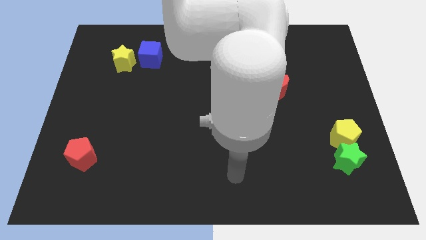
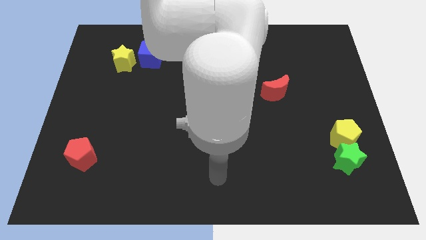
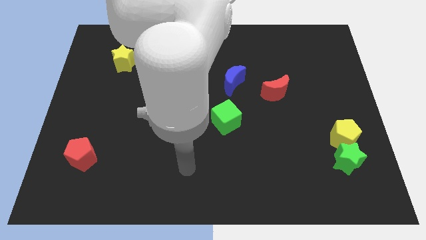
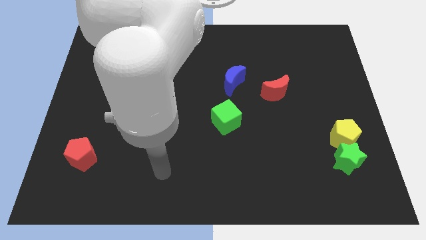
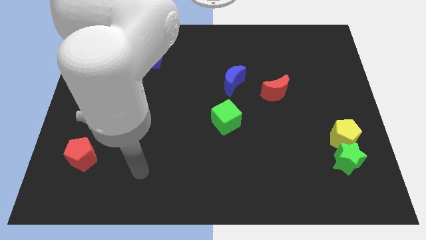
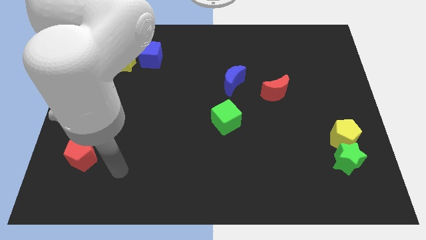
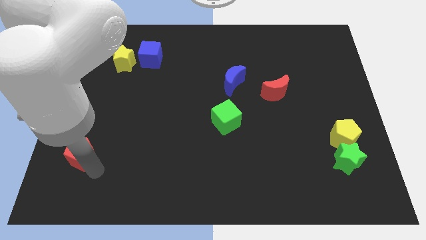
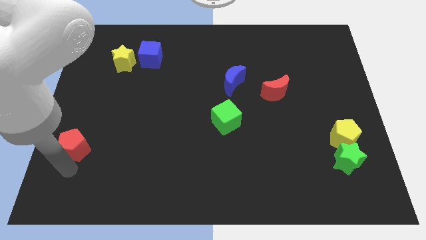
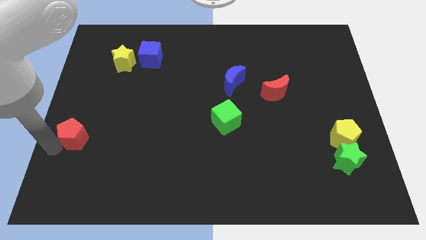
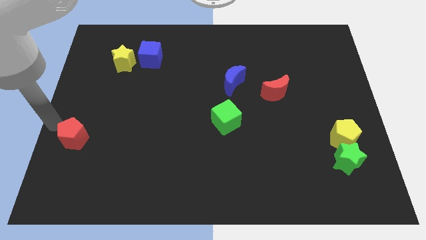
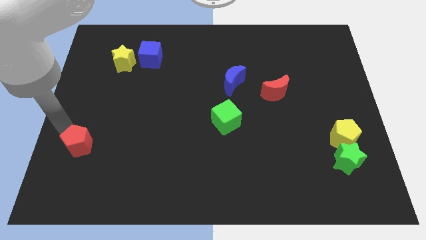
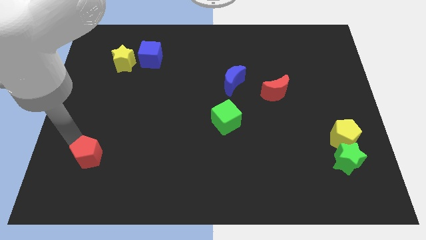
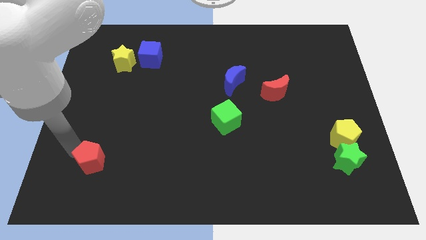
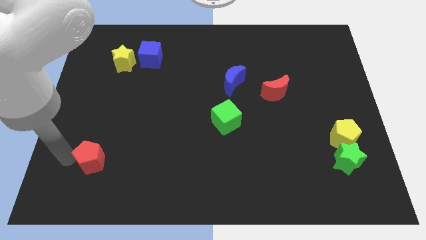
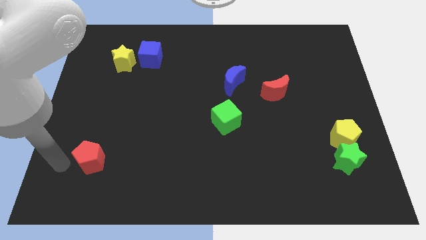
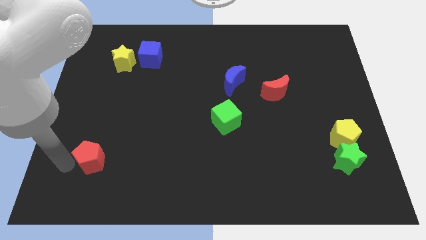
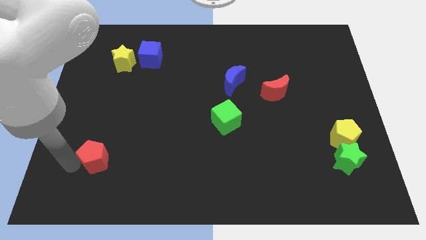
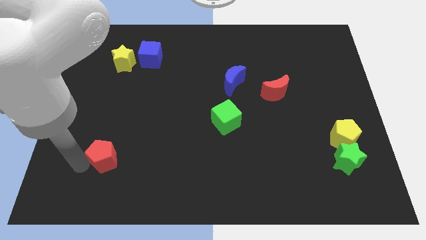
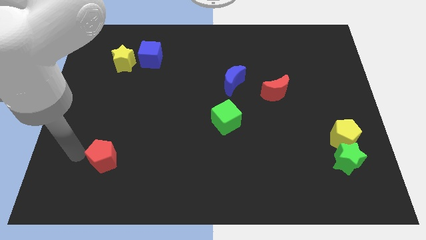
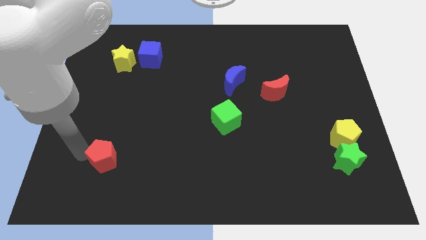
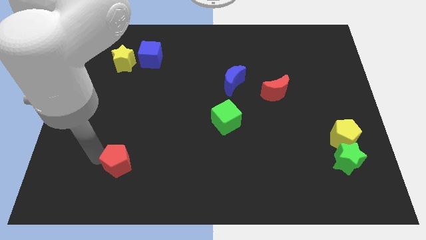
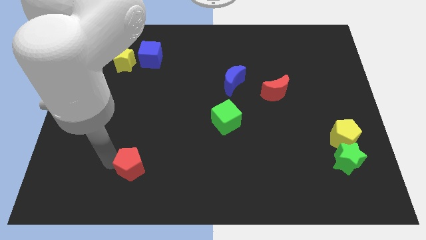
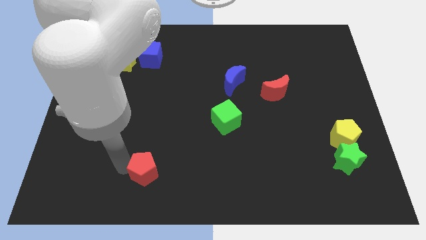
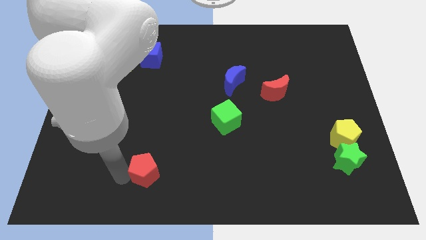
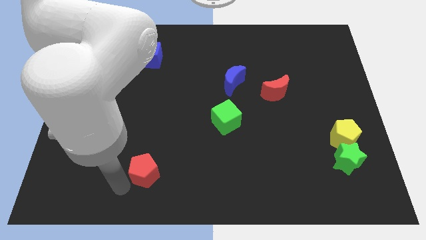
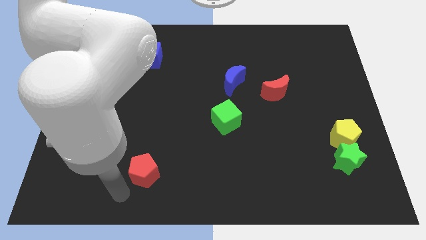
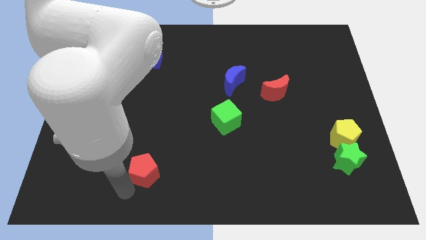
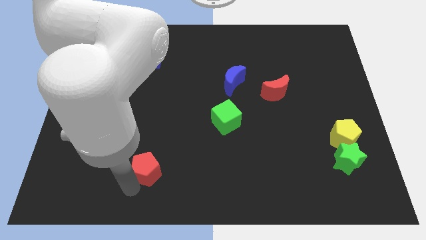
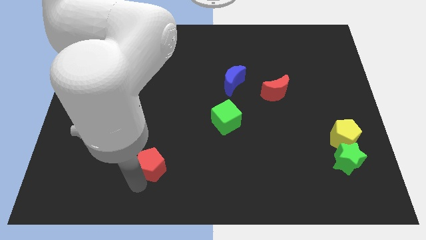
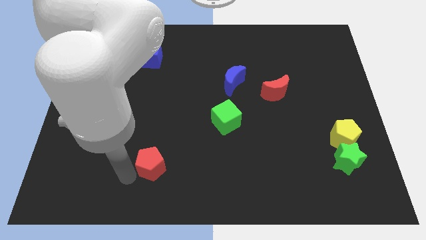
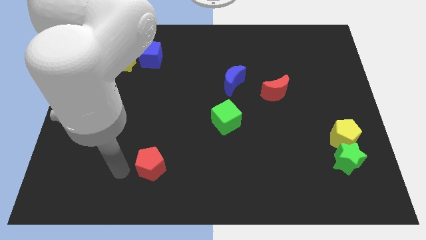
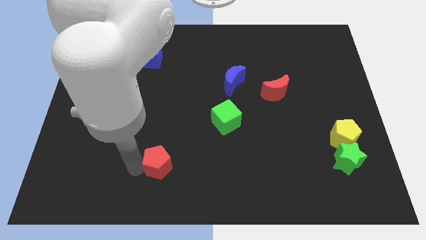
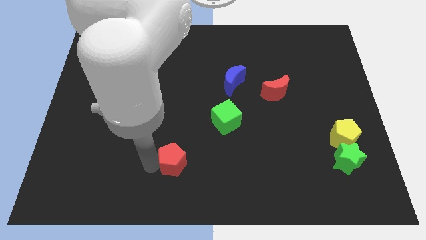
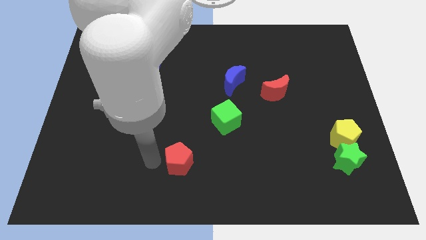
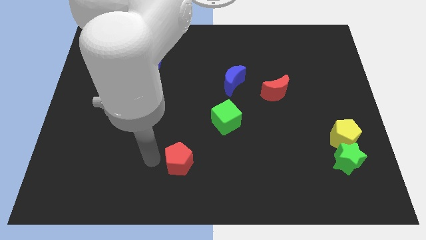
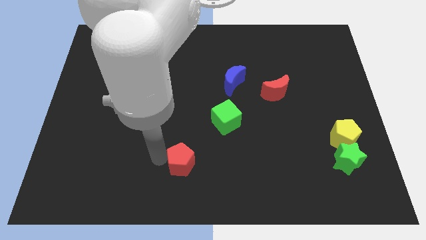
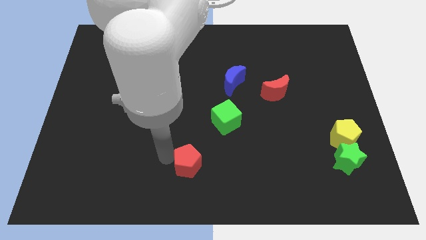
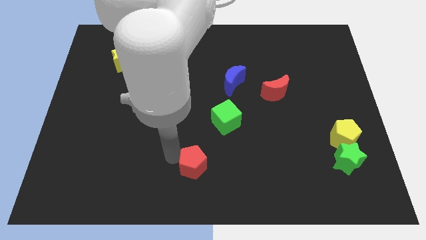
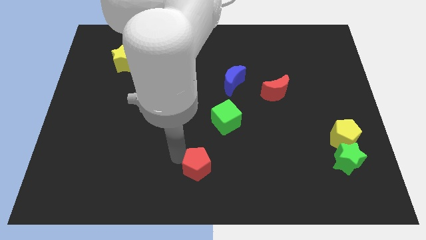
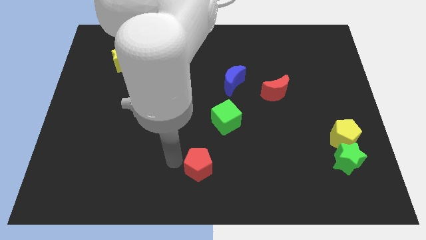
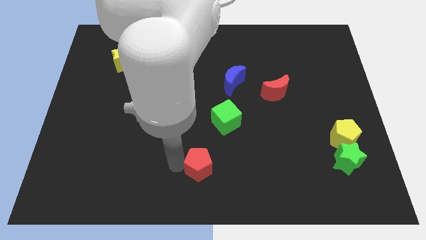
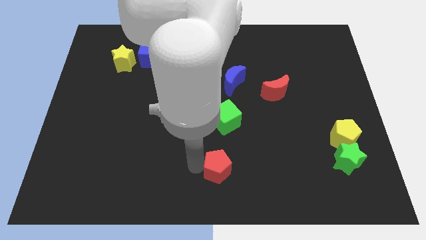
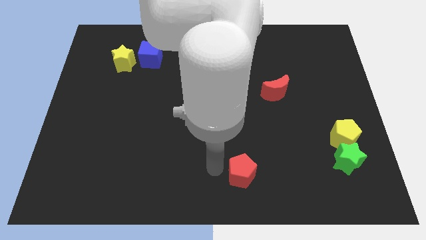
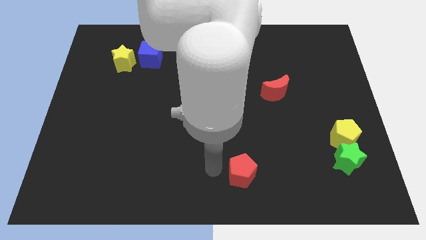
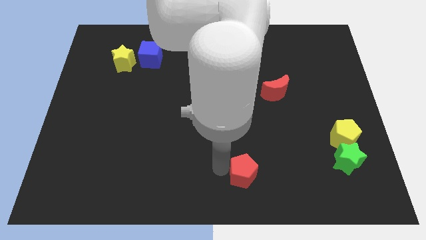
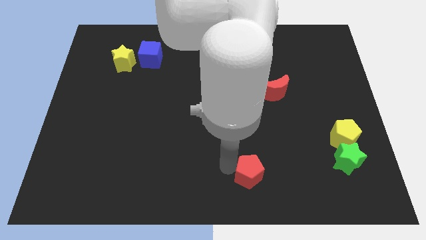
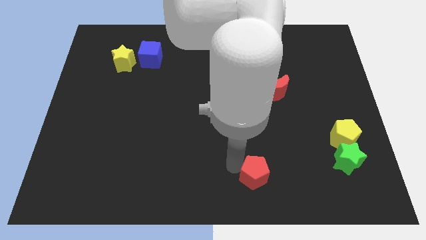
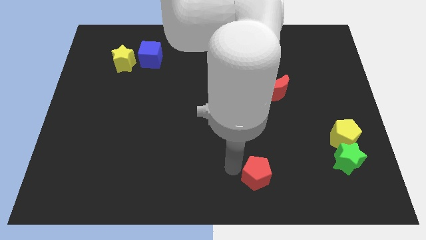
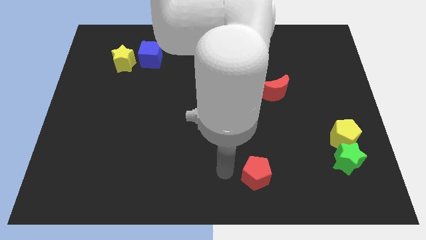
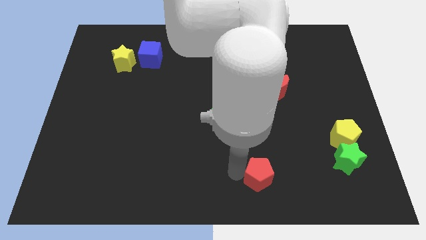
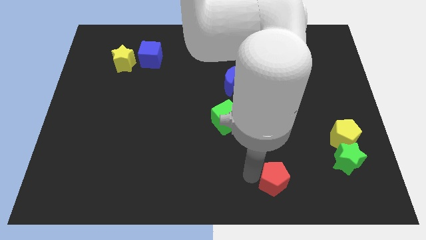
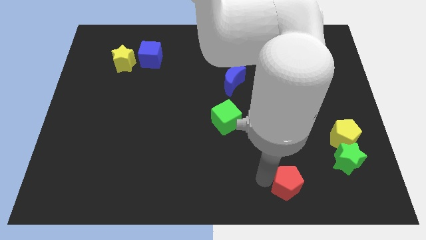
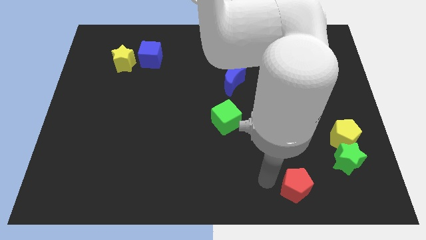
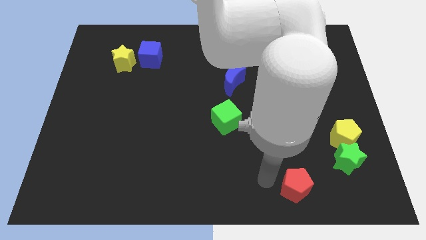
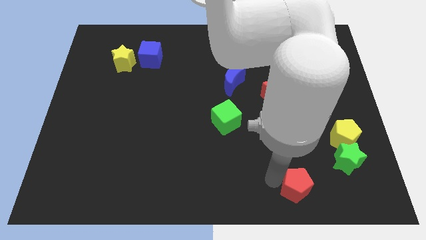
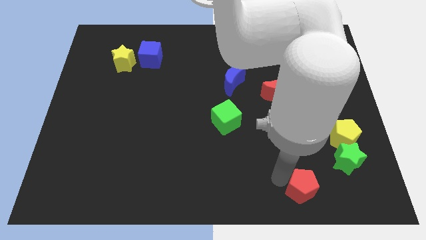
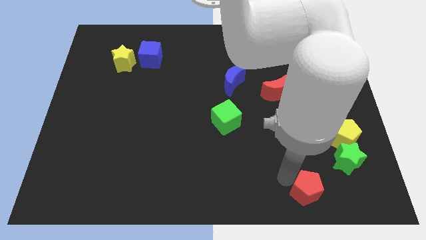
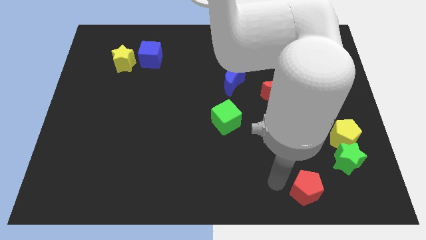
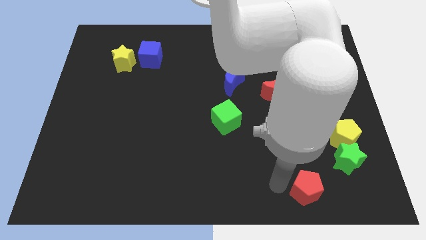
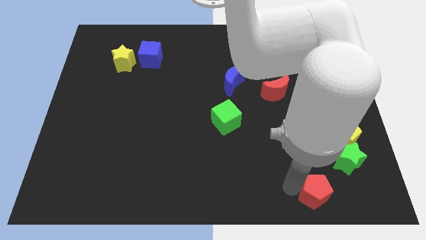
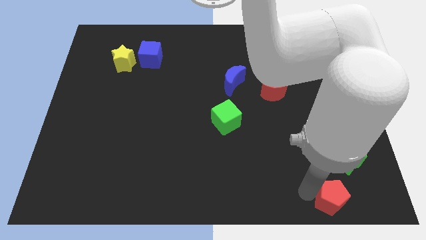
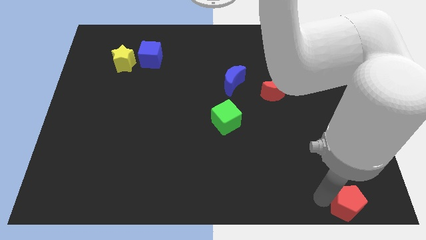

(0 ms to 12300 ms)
put the red pentagon to the bottom right

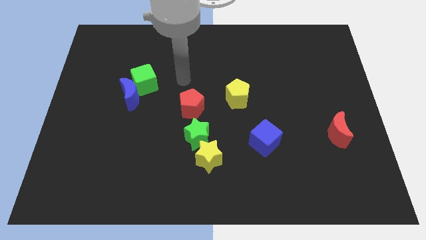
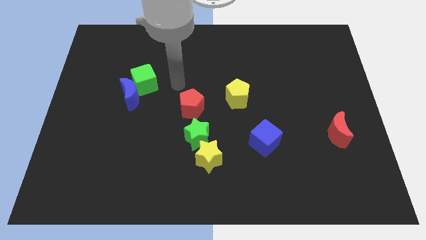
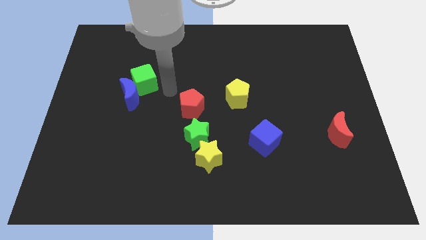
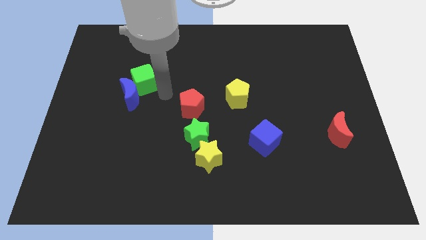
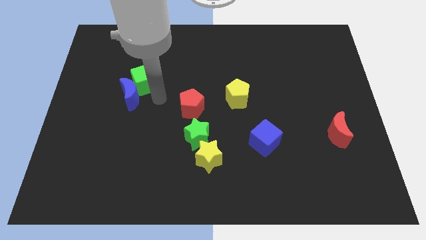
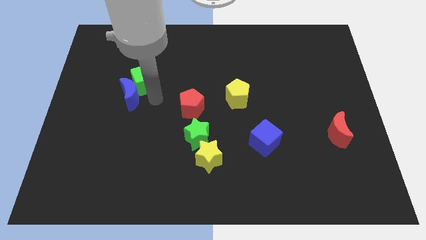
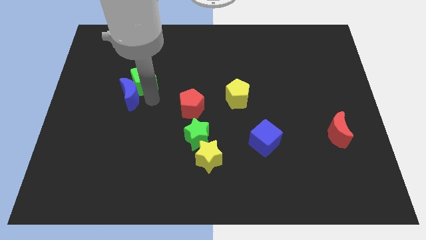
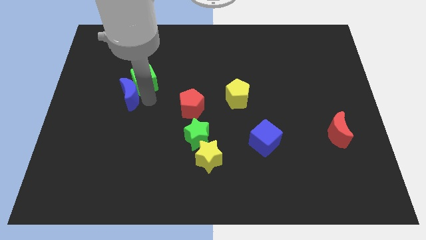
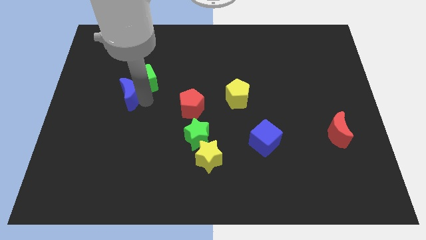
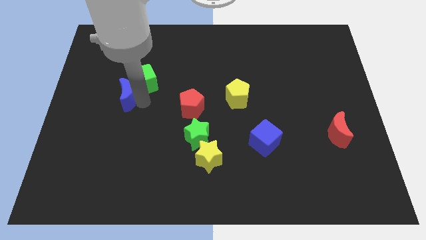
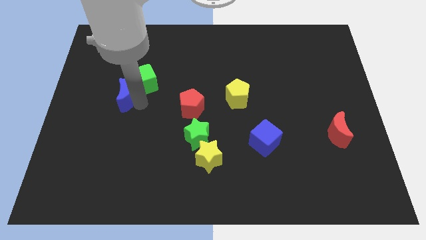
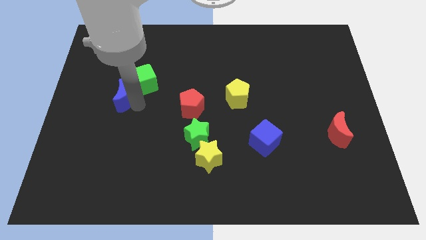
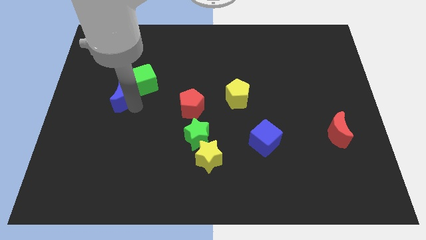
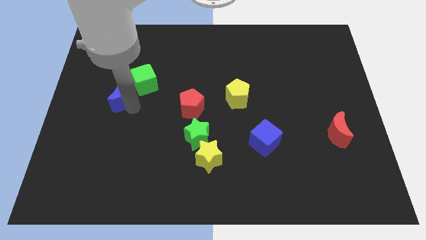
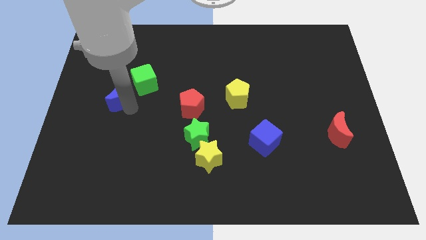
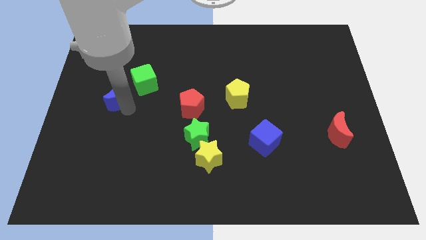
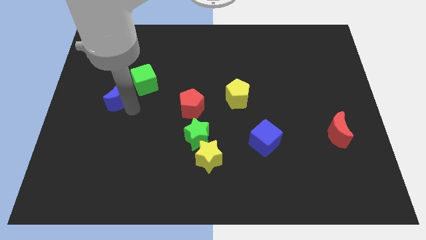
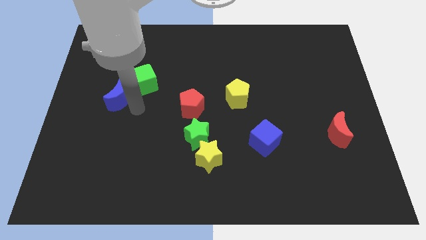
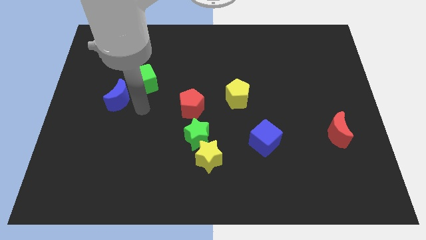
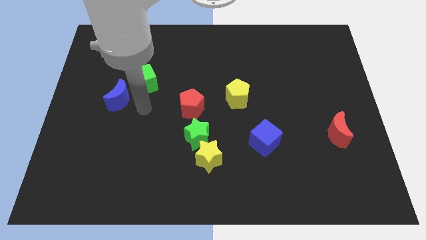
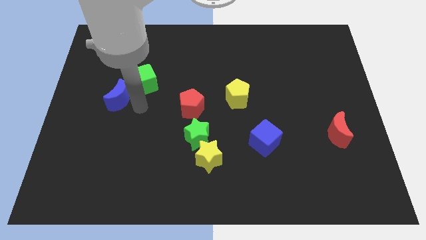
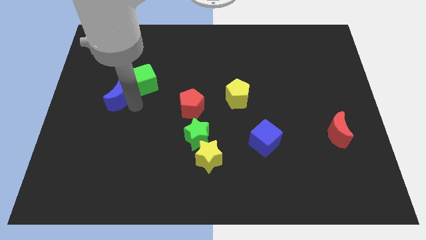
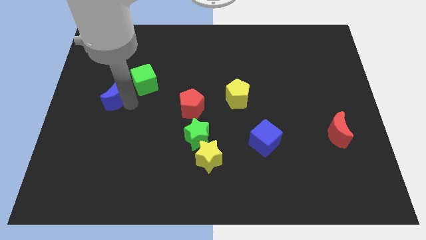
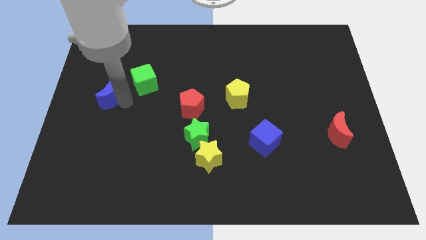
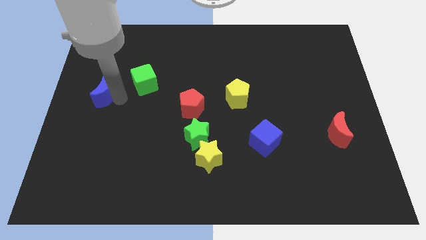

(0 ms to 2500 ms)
put the blue moon to the center left
